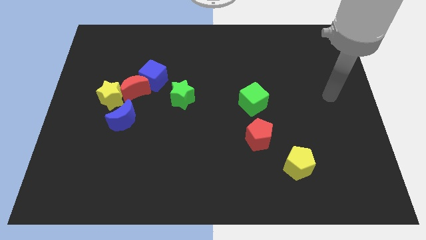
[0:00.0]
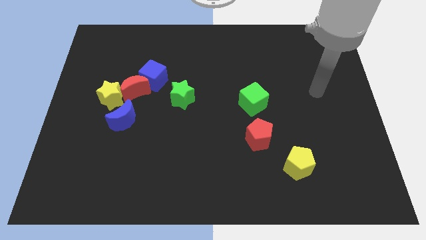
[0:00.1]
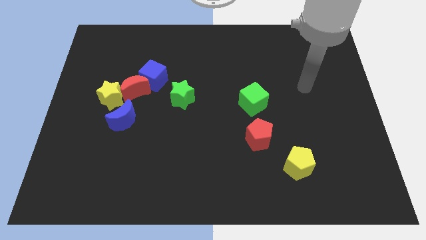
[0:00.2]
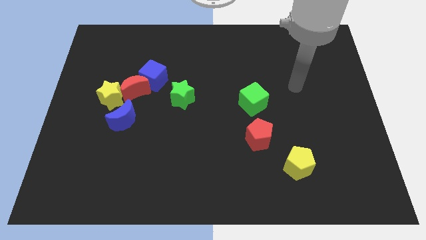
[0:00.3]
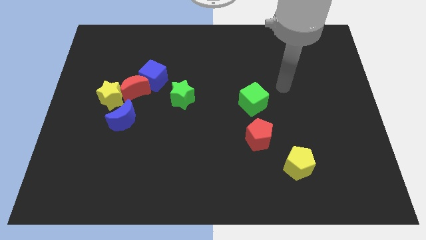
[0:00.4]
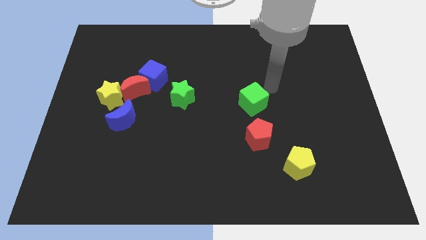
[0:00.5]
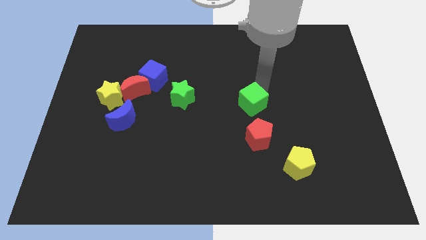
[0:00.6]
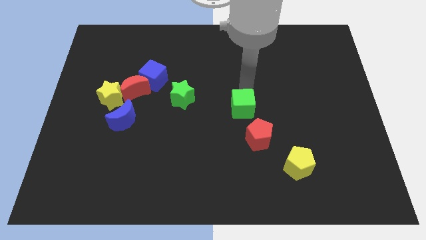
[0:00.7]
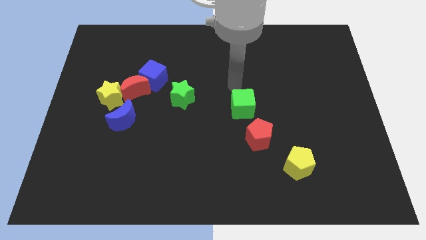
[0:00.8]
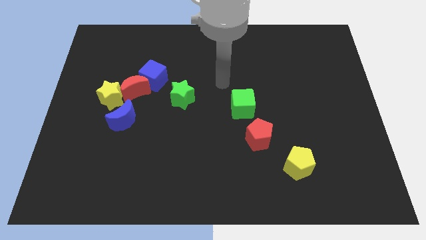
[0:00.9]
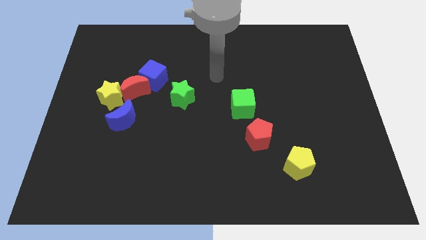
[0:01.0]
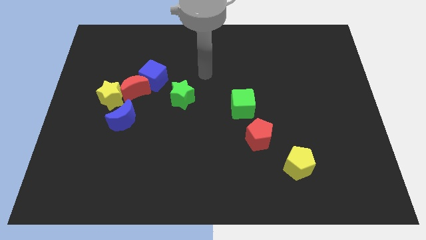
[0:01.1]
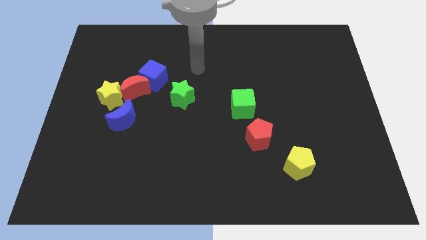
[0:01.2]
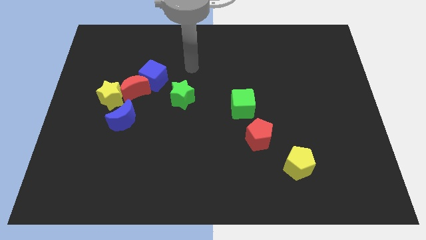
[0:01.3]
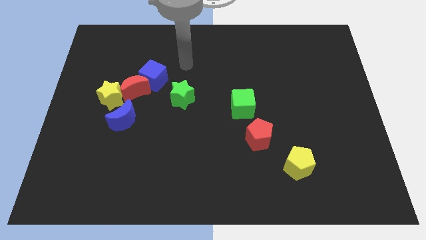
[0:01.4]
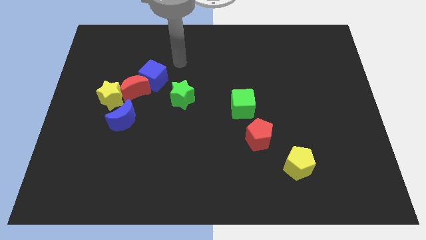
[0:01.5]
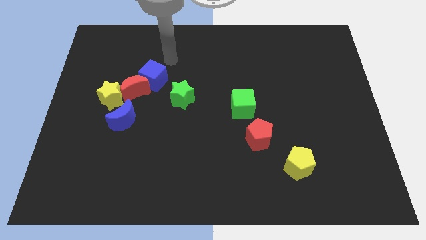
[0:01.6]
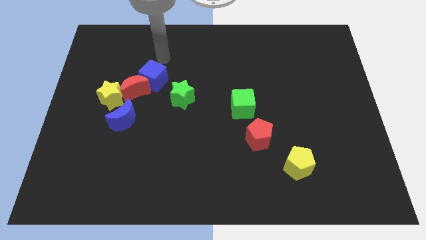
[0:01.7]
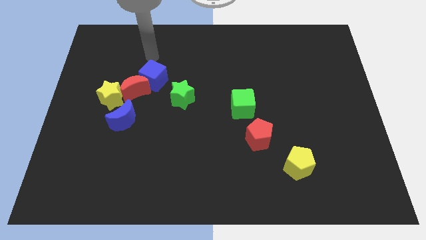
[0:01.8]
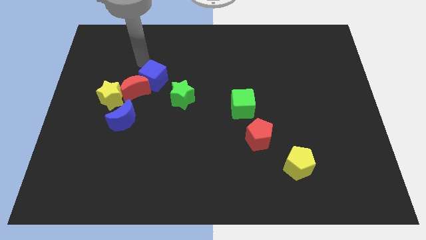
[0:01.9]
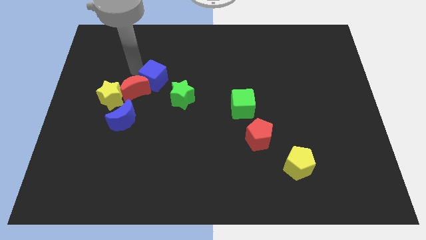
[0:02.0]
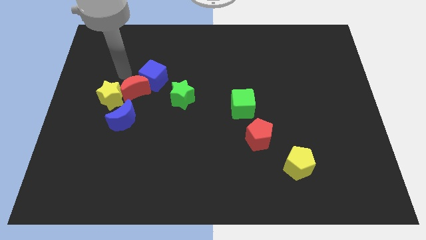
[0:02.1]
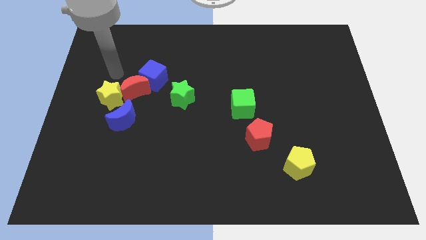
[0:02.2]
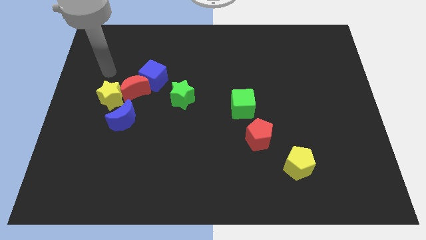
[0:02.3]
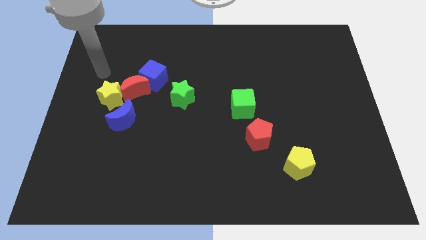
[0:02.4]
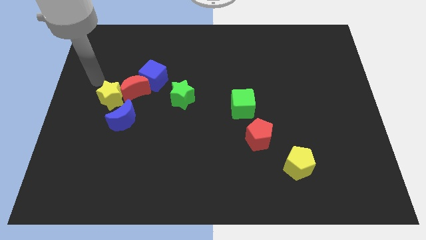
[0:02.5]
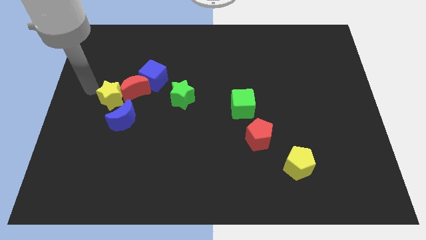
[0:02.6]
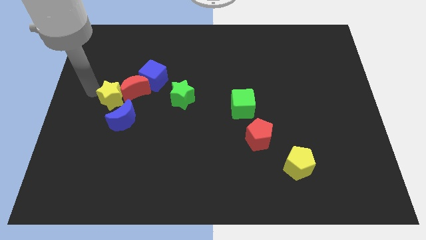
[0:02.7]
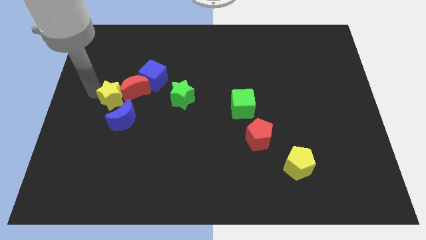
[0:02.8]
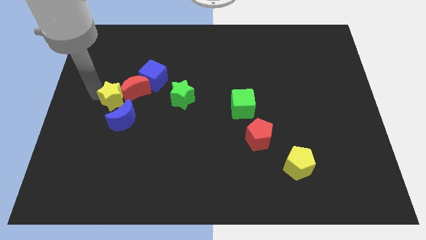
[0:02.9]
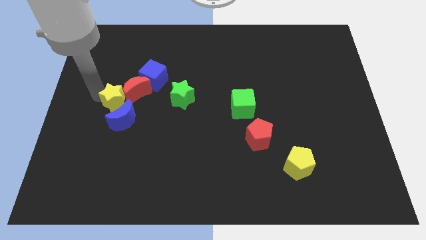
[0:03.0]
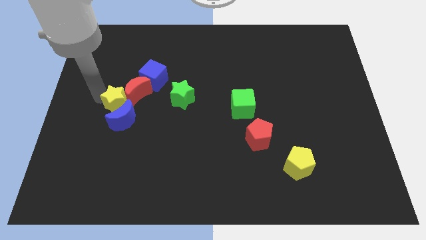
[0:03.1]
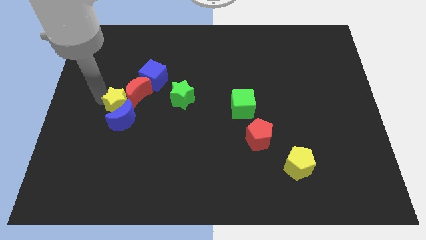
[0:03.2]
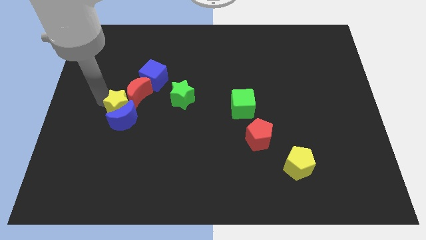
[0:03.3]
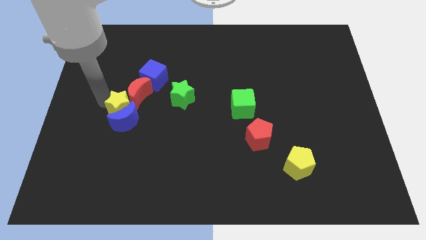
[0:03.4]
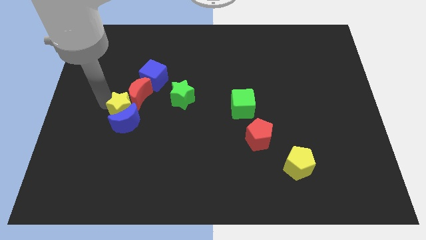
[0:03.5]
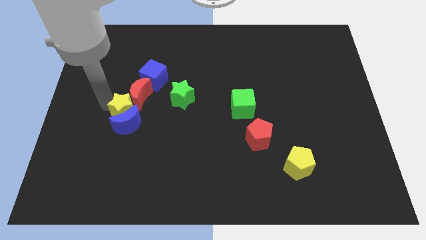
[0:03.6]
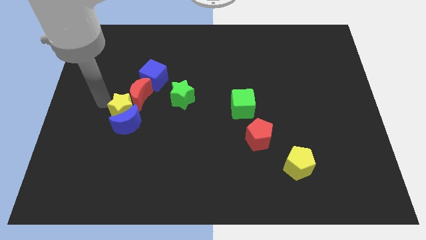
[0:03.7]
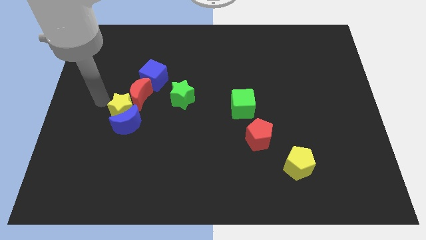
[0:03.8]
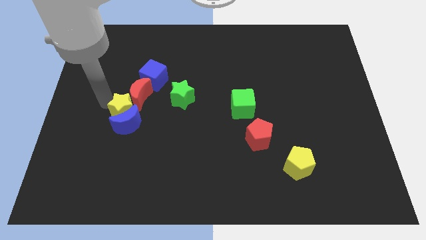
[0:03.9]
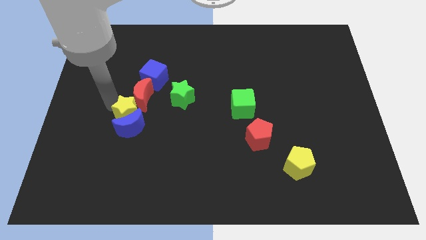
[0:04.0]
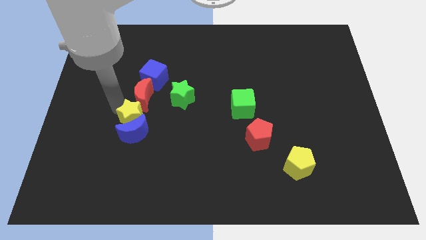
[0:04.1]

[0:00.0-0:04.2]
push the yellow star down and right slightly

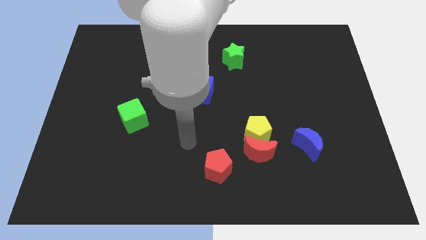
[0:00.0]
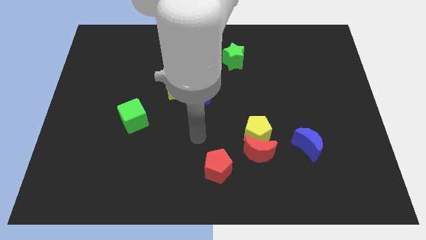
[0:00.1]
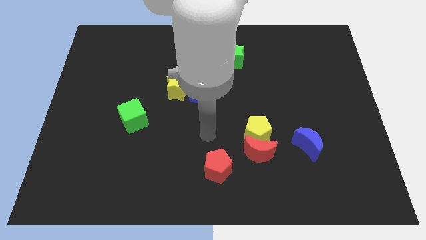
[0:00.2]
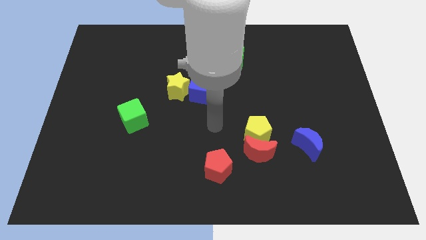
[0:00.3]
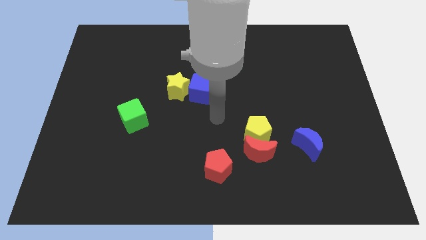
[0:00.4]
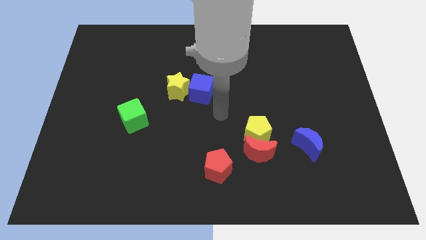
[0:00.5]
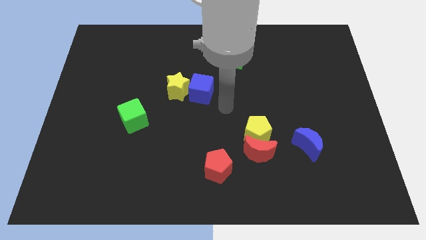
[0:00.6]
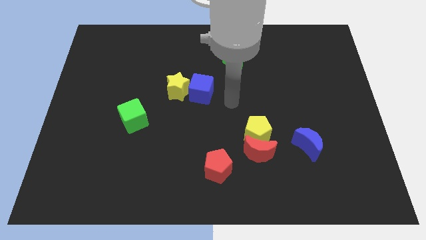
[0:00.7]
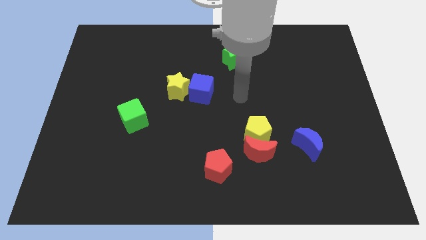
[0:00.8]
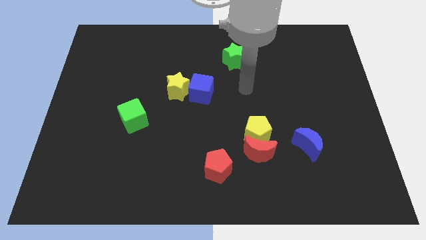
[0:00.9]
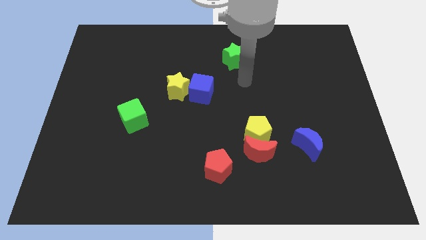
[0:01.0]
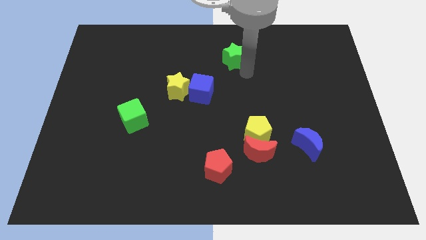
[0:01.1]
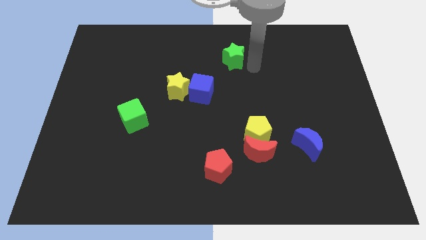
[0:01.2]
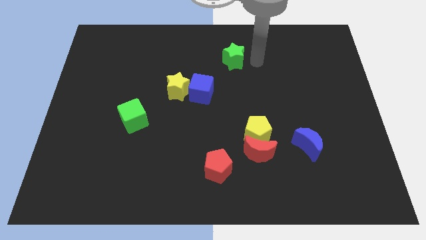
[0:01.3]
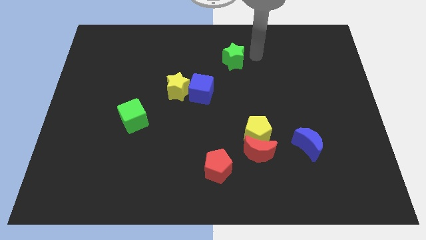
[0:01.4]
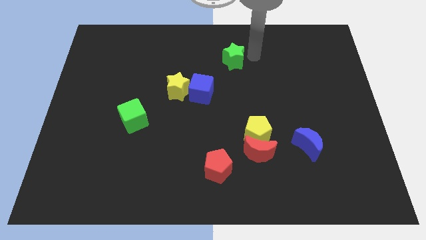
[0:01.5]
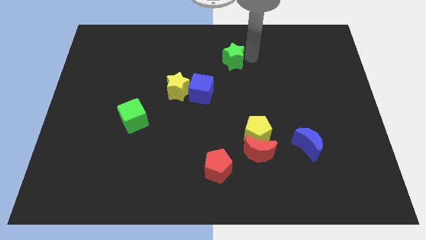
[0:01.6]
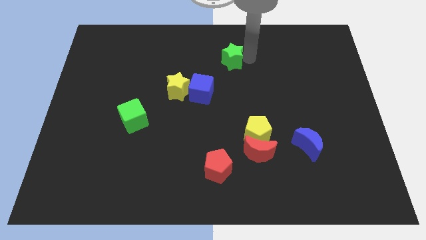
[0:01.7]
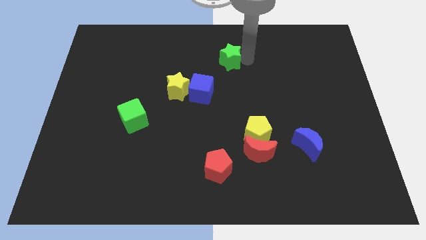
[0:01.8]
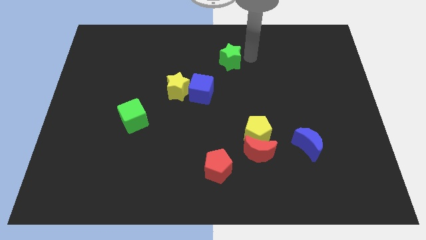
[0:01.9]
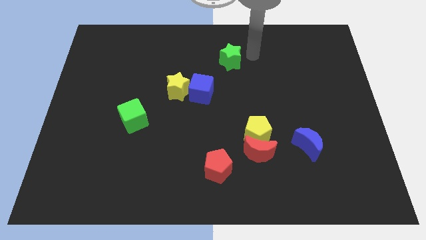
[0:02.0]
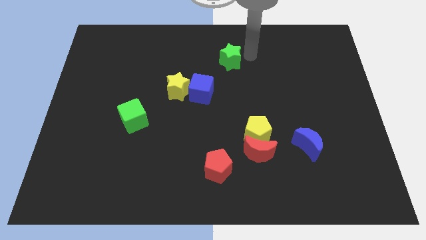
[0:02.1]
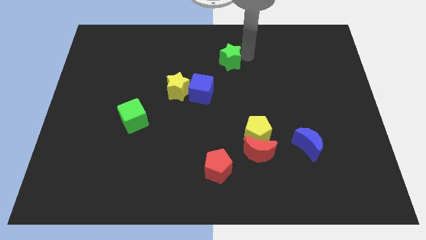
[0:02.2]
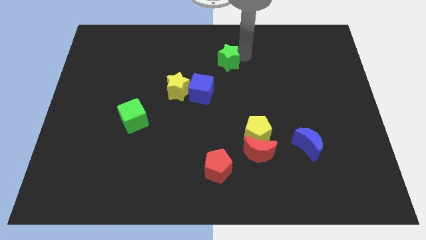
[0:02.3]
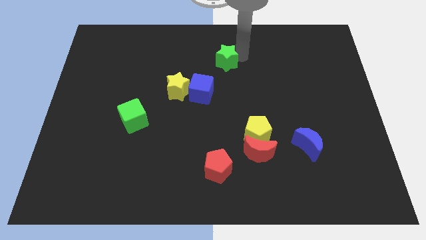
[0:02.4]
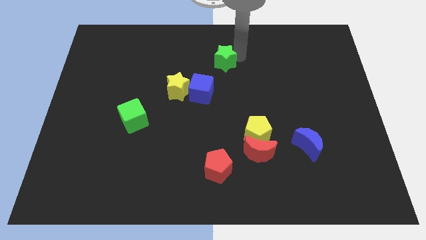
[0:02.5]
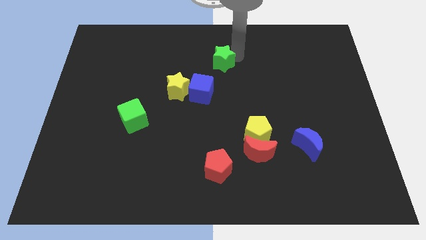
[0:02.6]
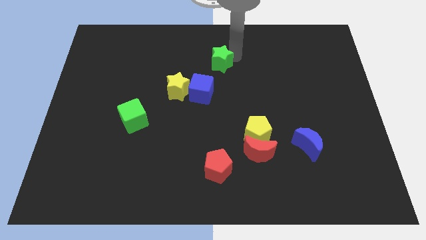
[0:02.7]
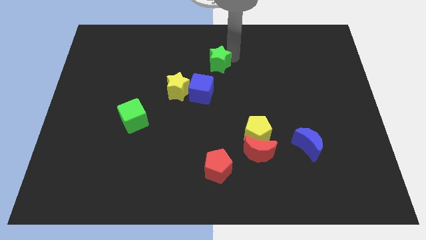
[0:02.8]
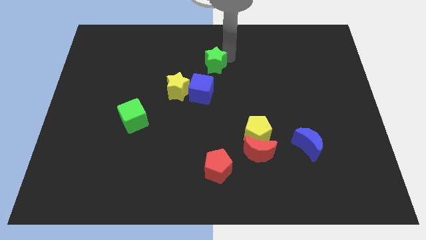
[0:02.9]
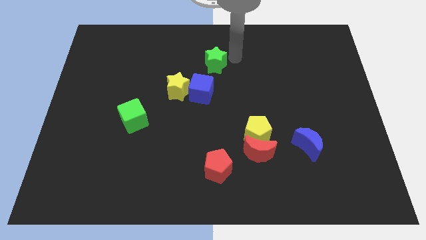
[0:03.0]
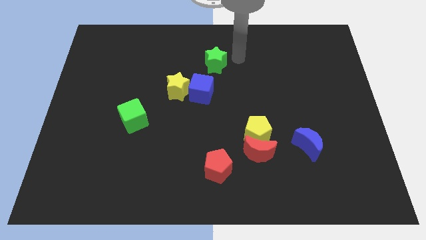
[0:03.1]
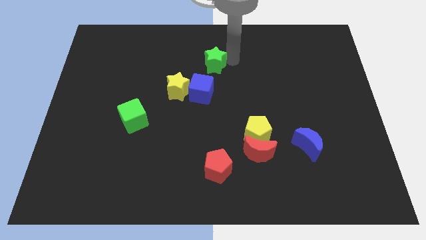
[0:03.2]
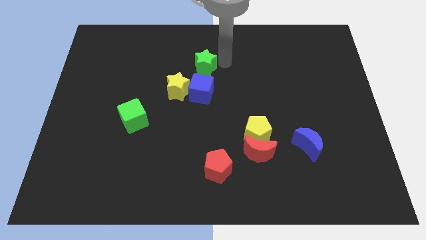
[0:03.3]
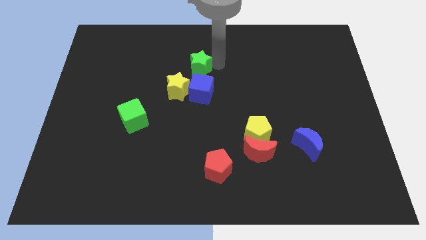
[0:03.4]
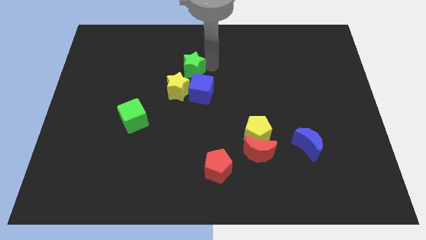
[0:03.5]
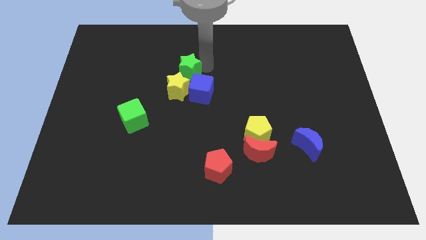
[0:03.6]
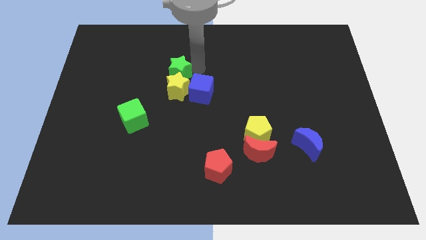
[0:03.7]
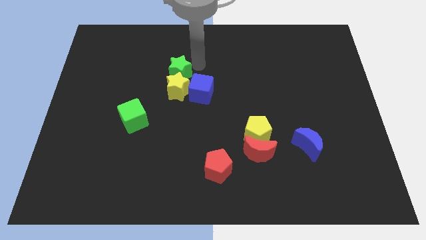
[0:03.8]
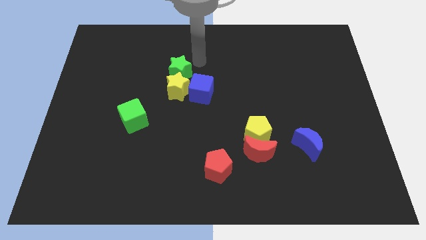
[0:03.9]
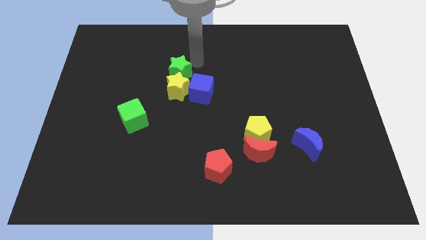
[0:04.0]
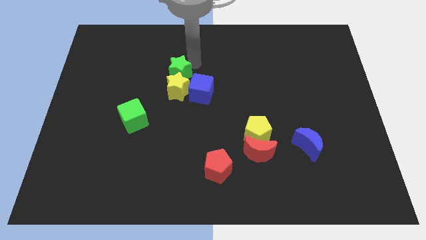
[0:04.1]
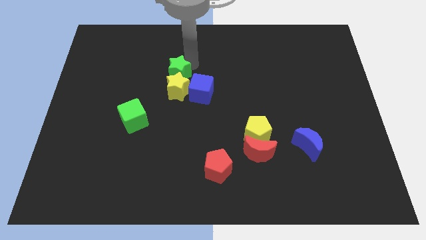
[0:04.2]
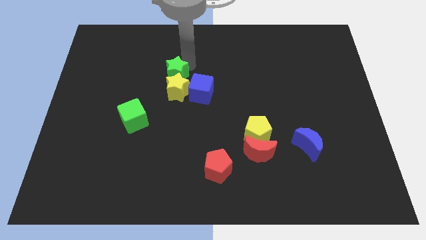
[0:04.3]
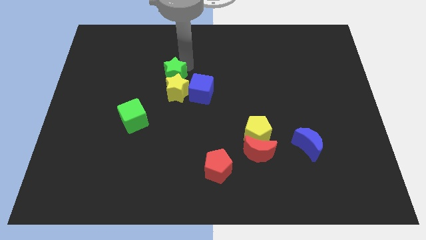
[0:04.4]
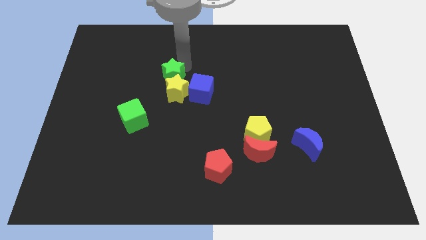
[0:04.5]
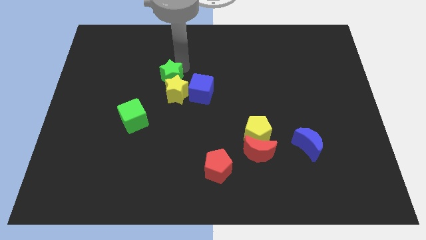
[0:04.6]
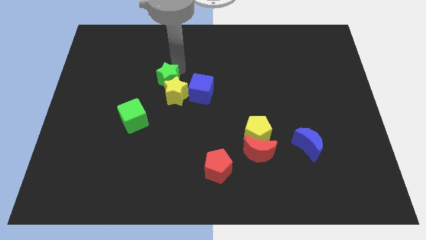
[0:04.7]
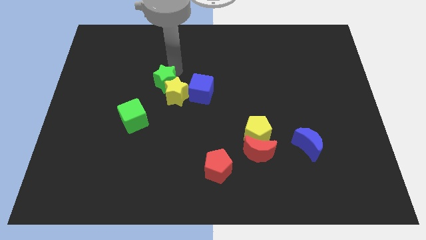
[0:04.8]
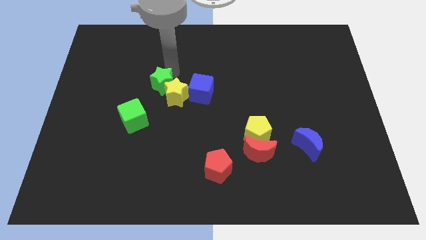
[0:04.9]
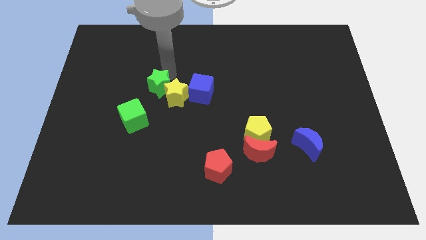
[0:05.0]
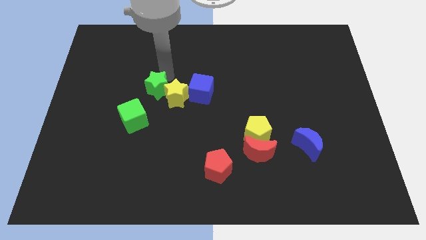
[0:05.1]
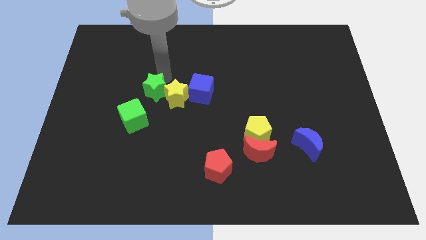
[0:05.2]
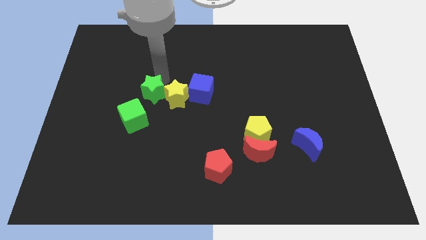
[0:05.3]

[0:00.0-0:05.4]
move the green star diagonally downwards and left
